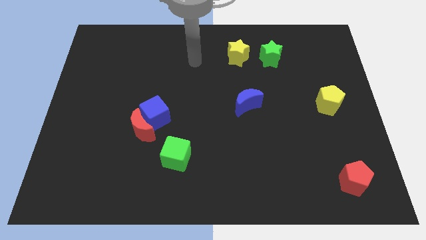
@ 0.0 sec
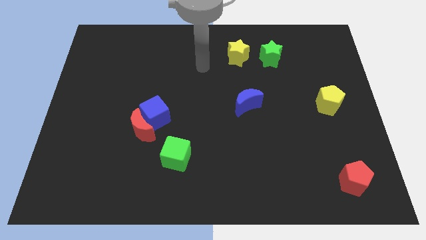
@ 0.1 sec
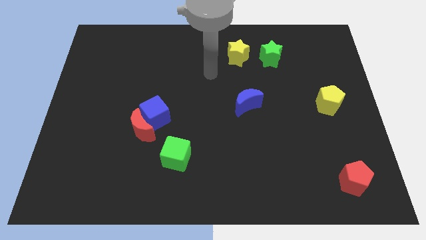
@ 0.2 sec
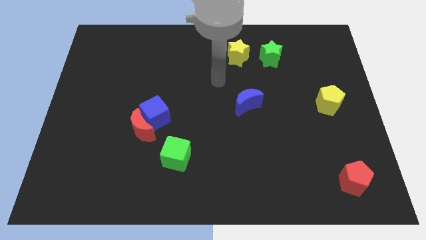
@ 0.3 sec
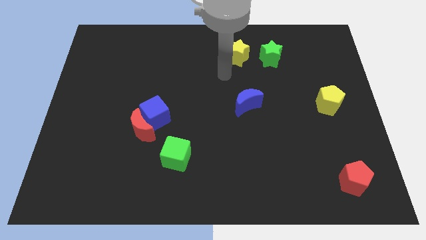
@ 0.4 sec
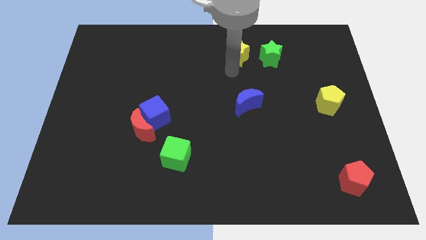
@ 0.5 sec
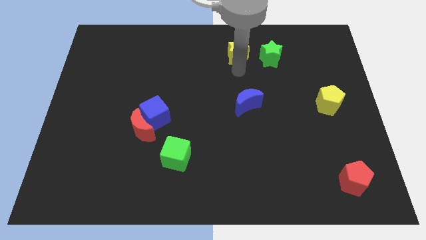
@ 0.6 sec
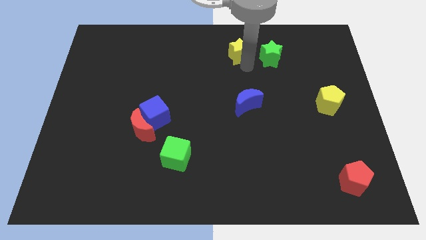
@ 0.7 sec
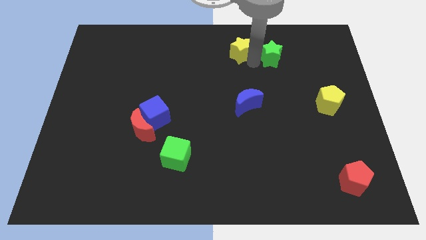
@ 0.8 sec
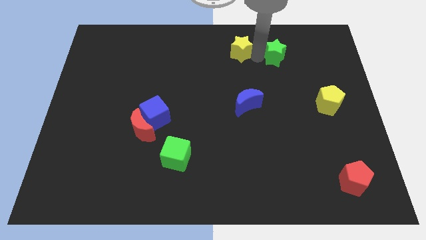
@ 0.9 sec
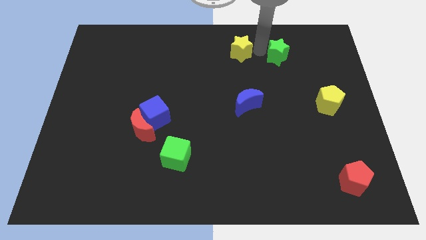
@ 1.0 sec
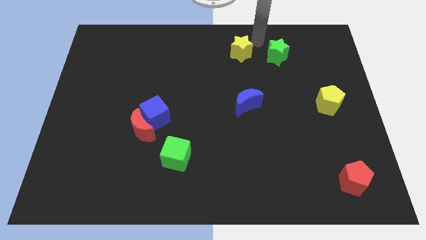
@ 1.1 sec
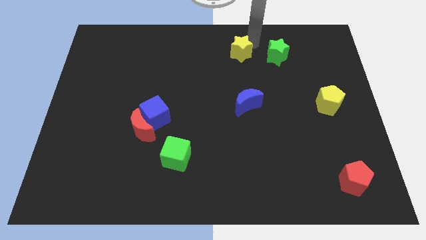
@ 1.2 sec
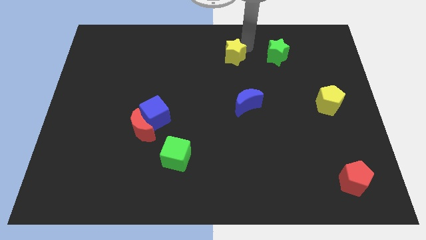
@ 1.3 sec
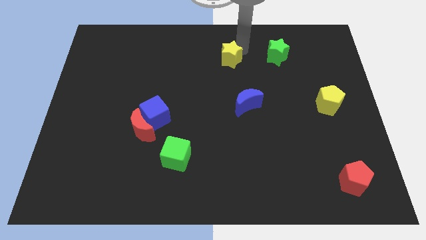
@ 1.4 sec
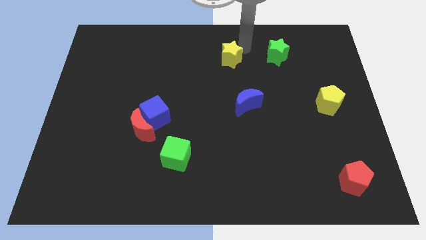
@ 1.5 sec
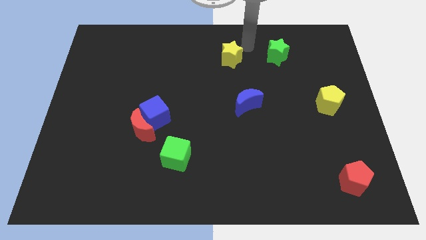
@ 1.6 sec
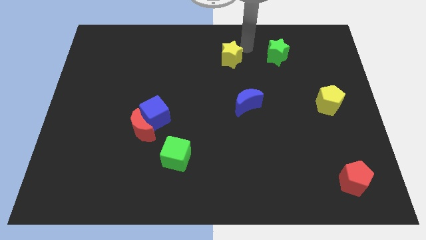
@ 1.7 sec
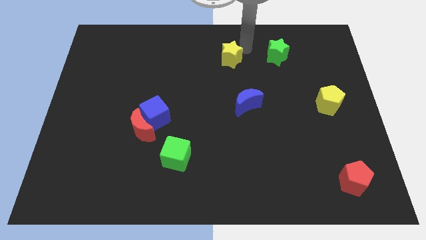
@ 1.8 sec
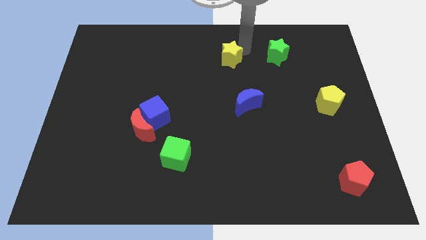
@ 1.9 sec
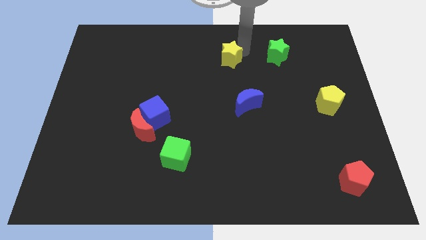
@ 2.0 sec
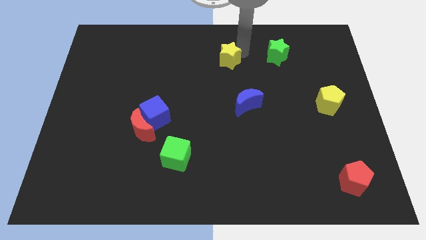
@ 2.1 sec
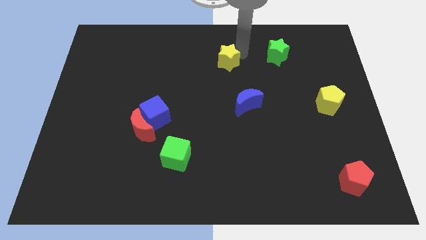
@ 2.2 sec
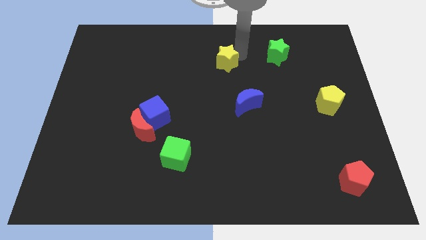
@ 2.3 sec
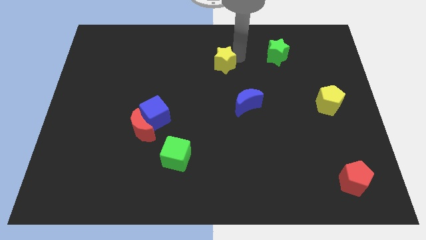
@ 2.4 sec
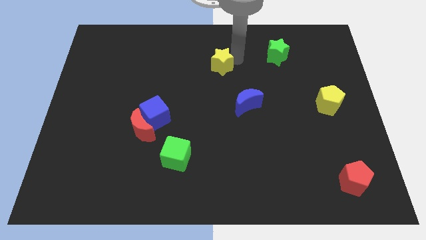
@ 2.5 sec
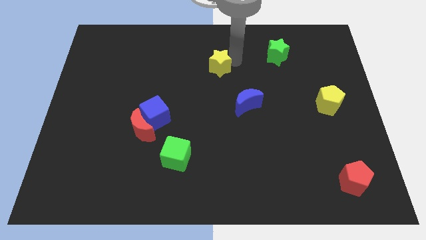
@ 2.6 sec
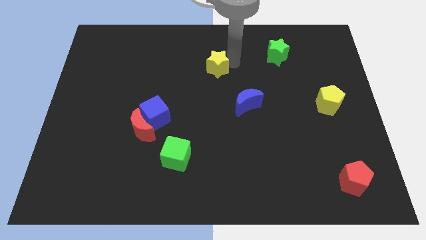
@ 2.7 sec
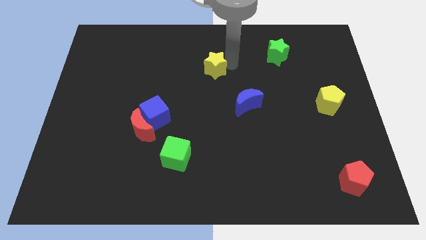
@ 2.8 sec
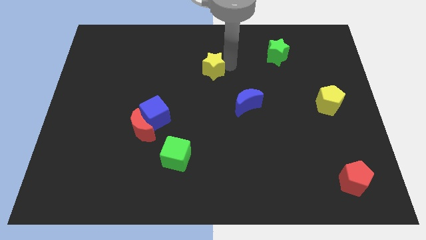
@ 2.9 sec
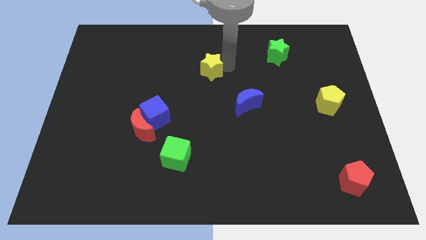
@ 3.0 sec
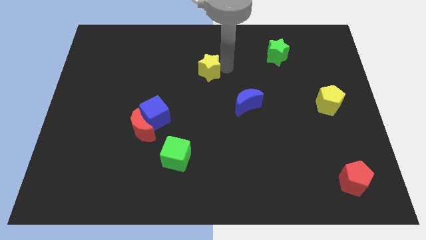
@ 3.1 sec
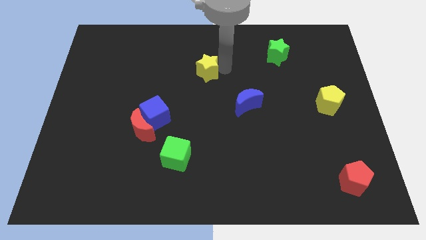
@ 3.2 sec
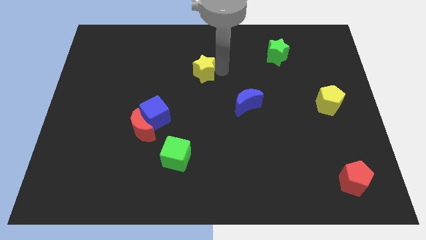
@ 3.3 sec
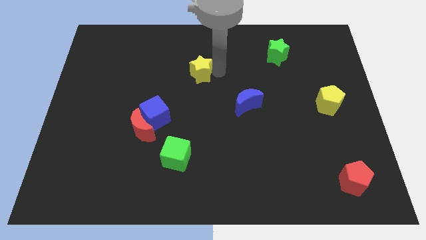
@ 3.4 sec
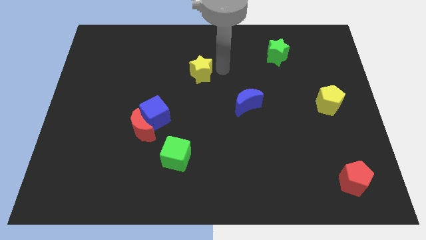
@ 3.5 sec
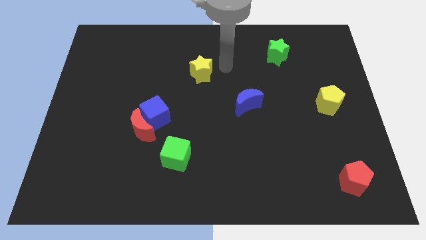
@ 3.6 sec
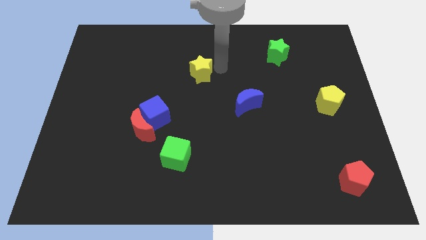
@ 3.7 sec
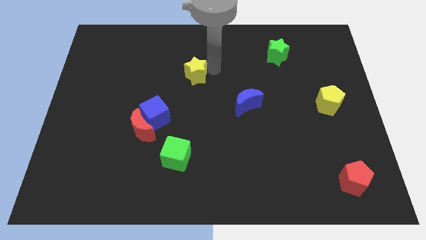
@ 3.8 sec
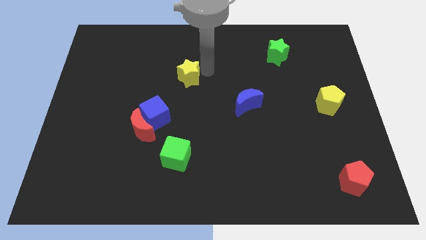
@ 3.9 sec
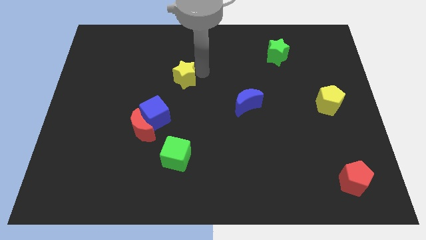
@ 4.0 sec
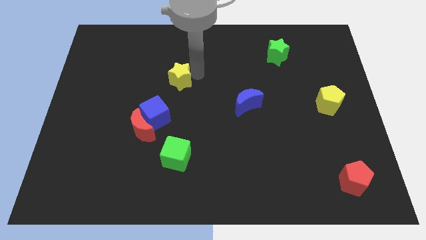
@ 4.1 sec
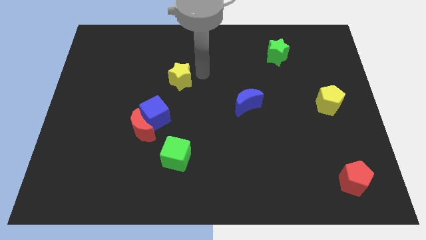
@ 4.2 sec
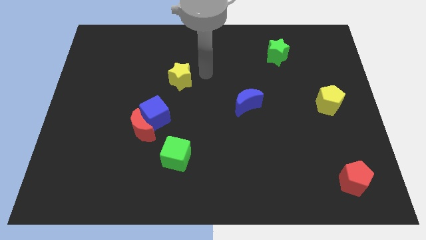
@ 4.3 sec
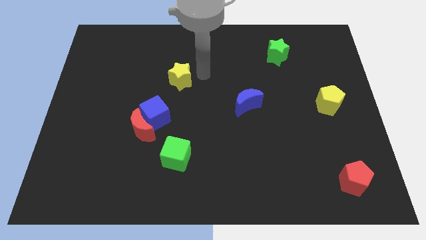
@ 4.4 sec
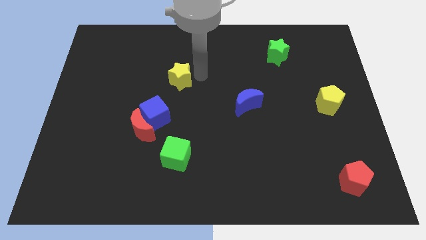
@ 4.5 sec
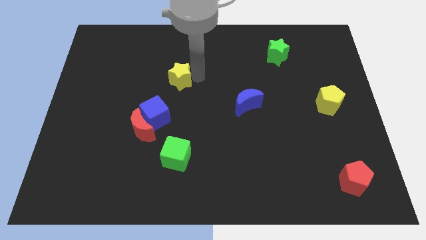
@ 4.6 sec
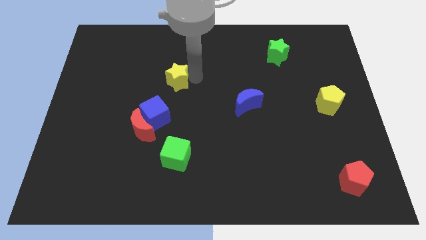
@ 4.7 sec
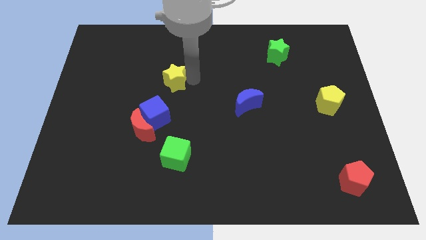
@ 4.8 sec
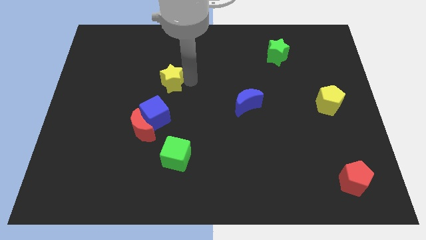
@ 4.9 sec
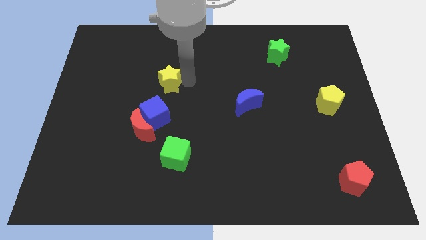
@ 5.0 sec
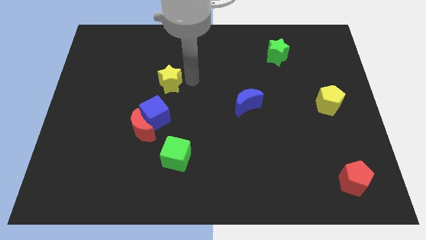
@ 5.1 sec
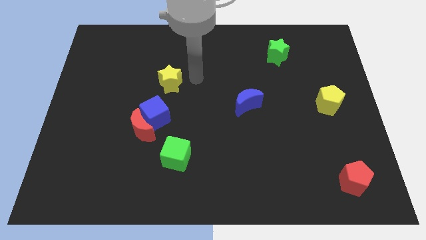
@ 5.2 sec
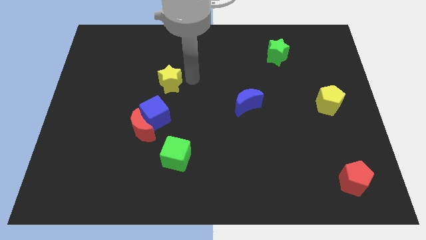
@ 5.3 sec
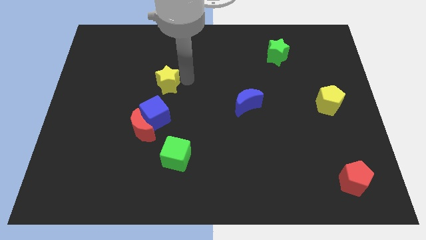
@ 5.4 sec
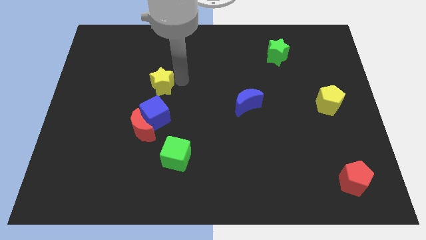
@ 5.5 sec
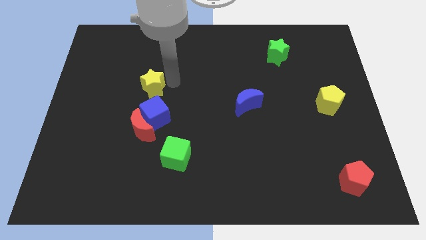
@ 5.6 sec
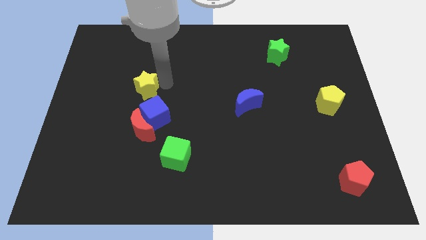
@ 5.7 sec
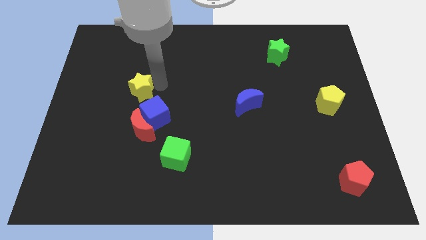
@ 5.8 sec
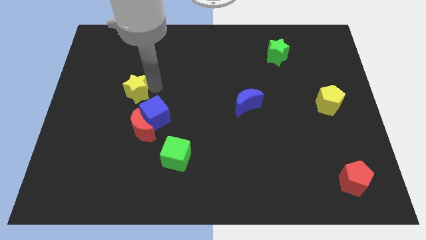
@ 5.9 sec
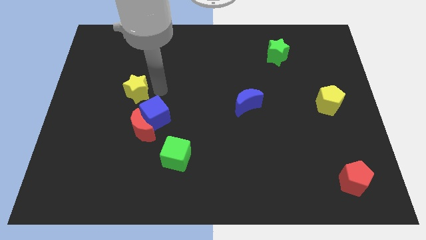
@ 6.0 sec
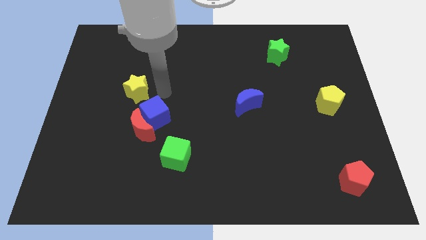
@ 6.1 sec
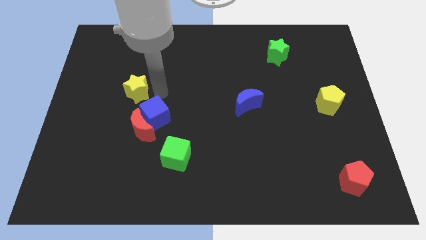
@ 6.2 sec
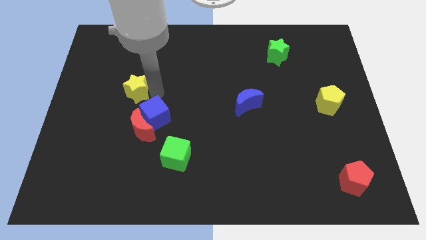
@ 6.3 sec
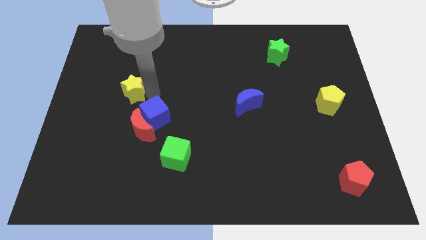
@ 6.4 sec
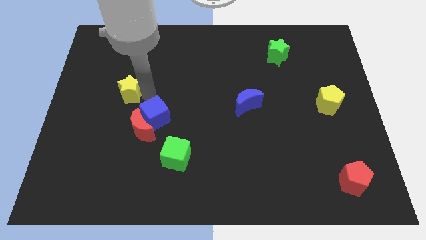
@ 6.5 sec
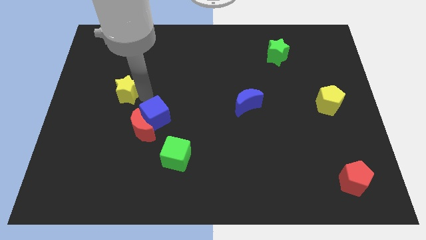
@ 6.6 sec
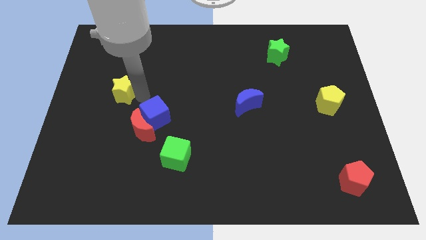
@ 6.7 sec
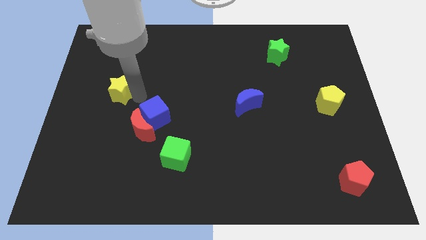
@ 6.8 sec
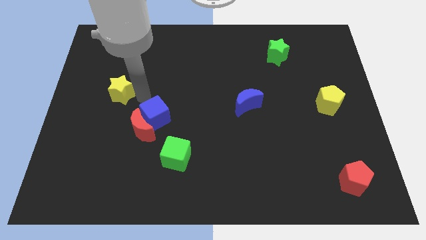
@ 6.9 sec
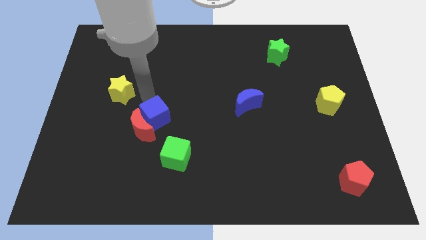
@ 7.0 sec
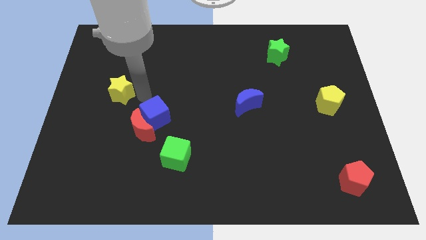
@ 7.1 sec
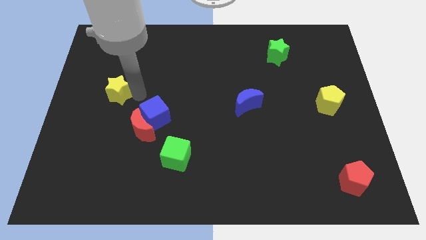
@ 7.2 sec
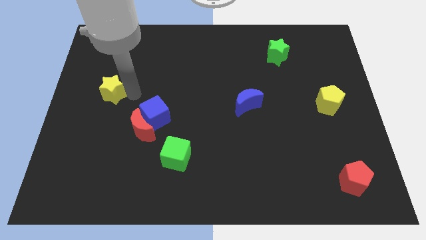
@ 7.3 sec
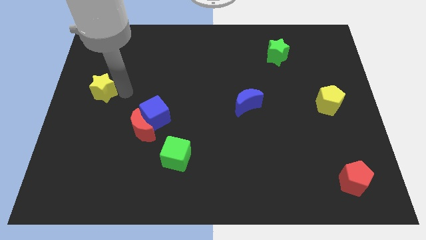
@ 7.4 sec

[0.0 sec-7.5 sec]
slide the yellow star to the left side of the board
